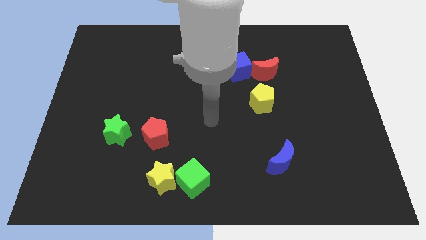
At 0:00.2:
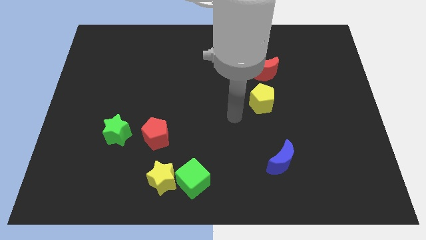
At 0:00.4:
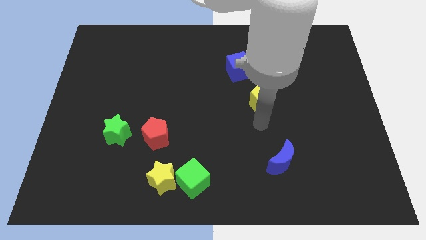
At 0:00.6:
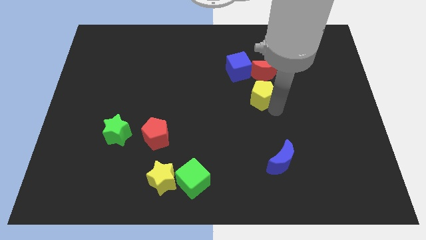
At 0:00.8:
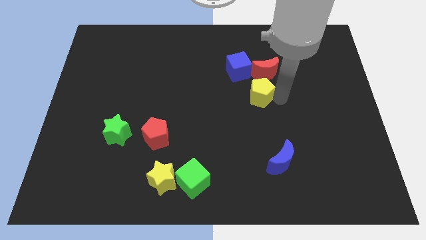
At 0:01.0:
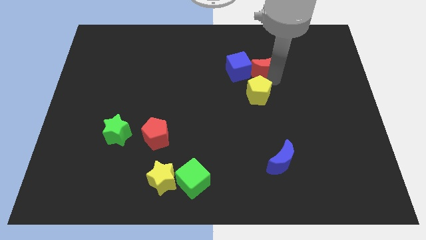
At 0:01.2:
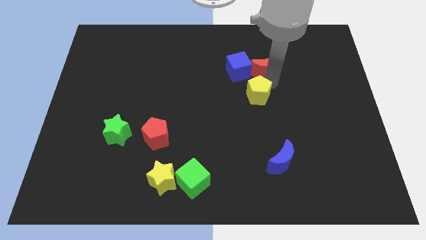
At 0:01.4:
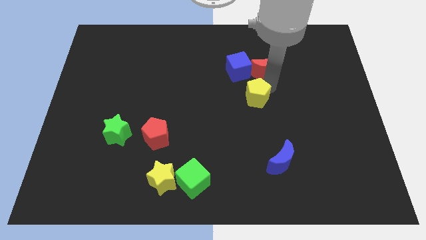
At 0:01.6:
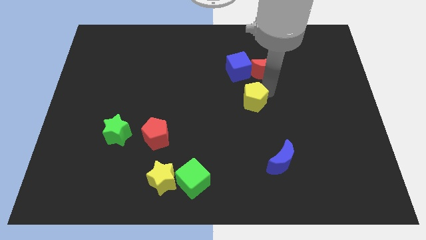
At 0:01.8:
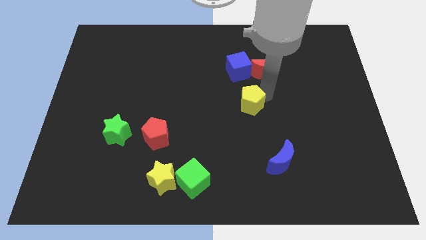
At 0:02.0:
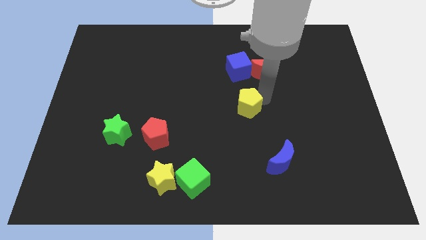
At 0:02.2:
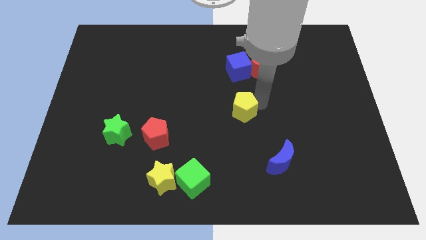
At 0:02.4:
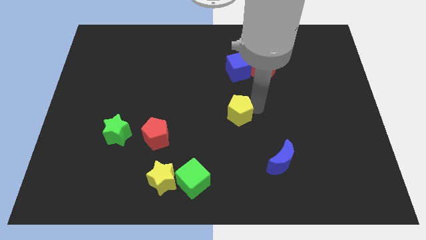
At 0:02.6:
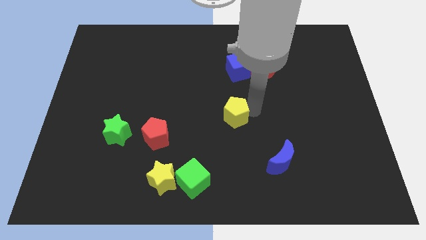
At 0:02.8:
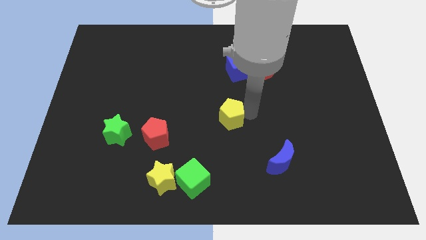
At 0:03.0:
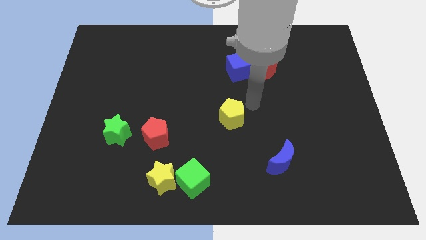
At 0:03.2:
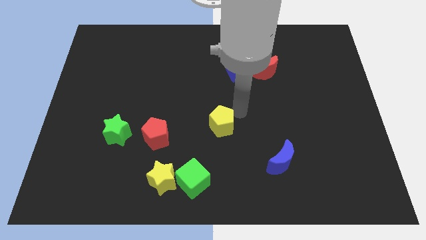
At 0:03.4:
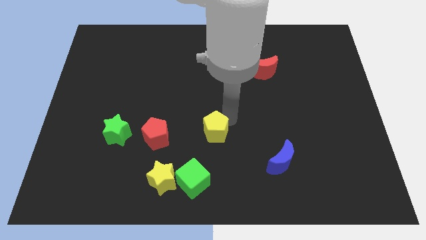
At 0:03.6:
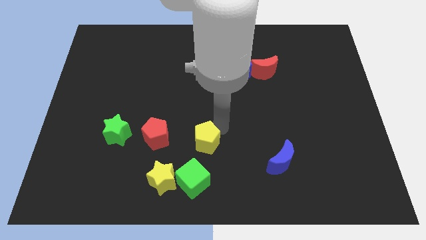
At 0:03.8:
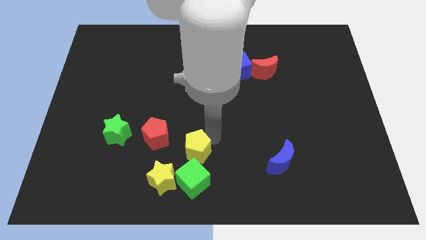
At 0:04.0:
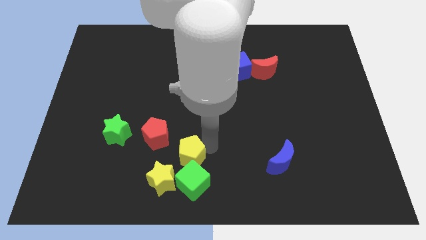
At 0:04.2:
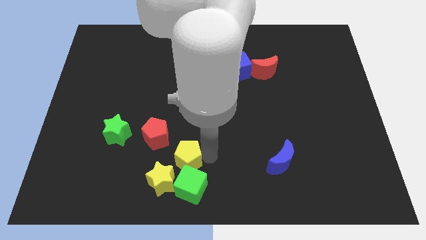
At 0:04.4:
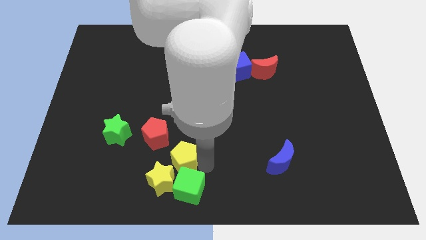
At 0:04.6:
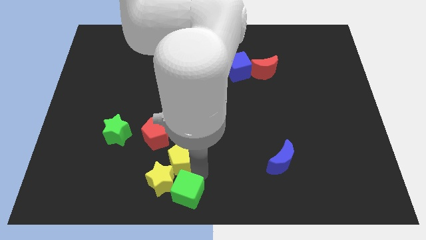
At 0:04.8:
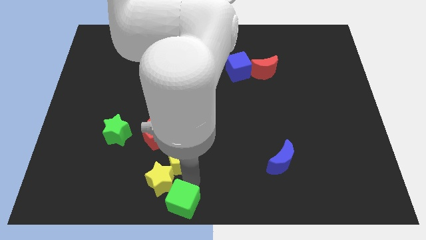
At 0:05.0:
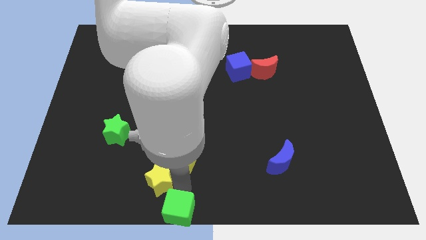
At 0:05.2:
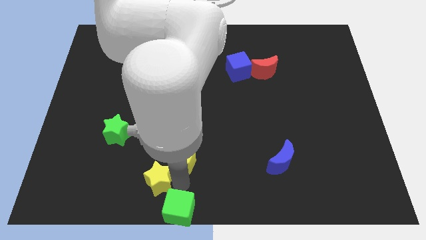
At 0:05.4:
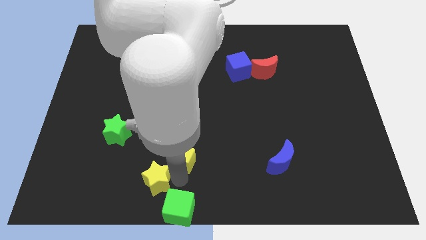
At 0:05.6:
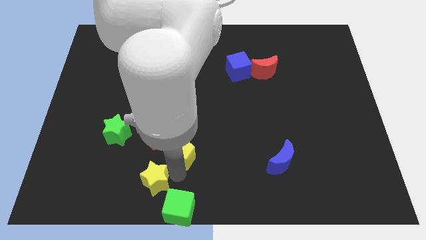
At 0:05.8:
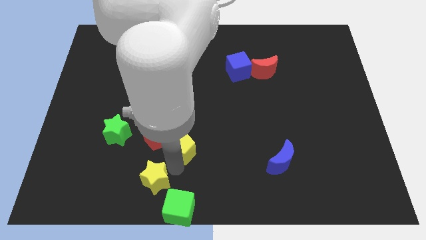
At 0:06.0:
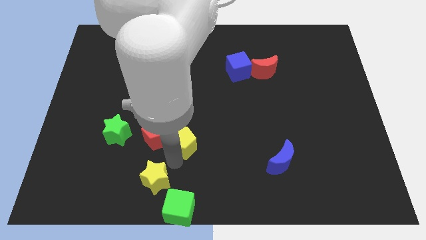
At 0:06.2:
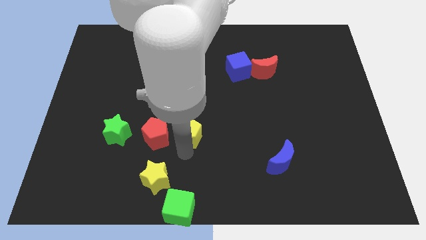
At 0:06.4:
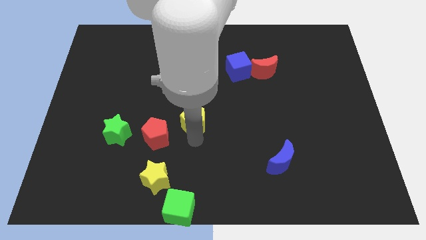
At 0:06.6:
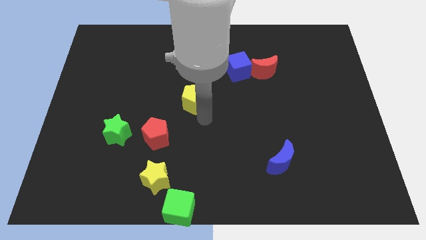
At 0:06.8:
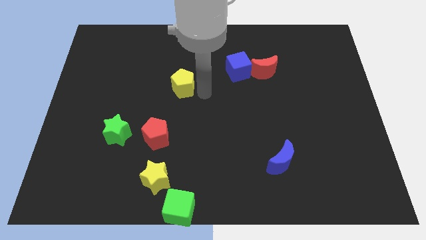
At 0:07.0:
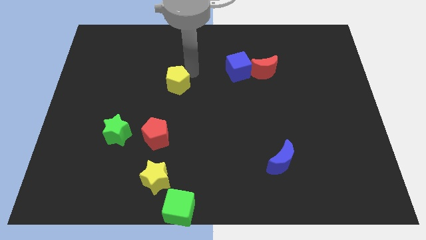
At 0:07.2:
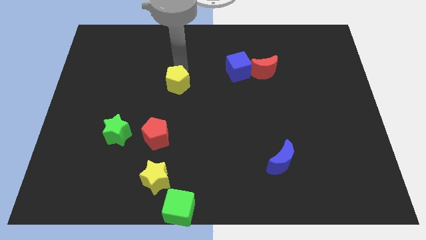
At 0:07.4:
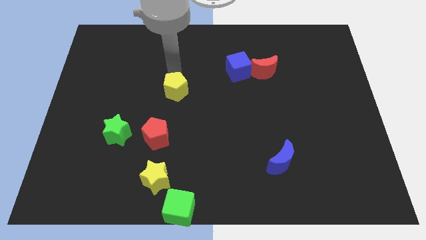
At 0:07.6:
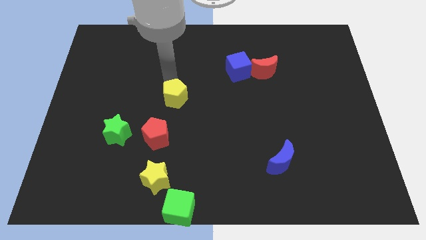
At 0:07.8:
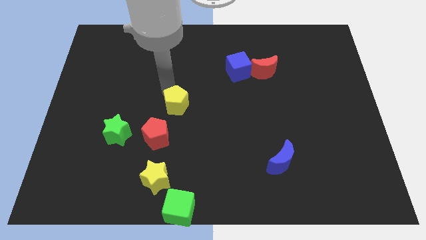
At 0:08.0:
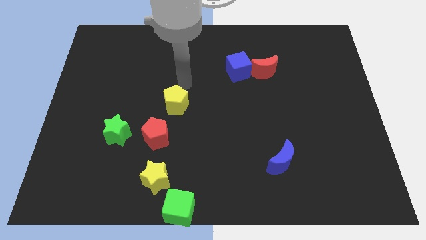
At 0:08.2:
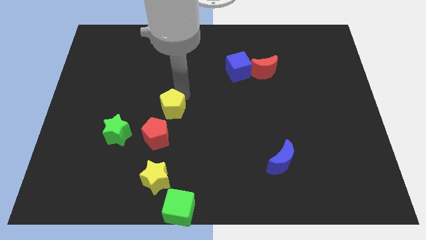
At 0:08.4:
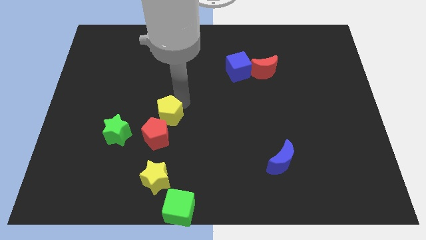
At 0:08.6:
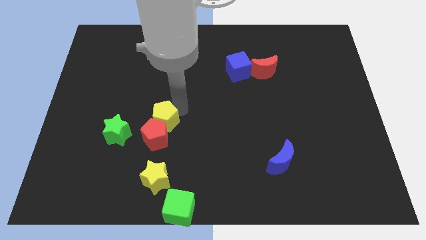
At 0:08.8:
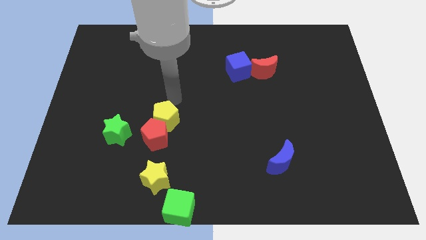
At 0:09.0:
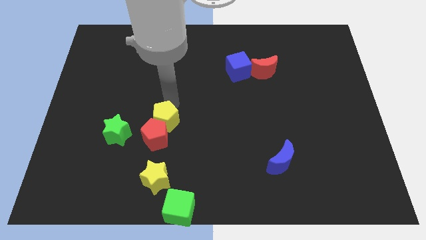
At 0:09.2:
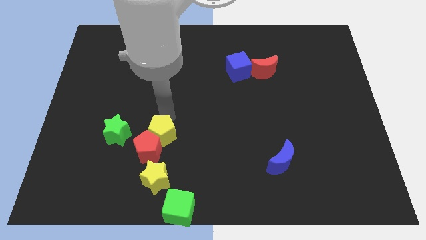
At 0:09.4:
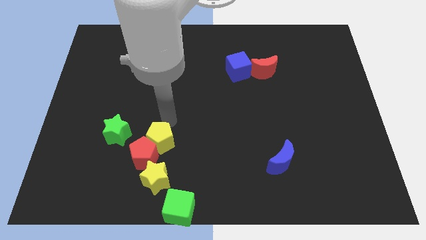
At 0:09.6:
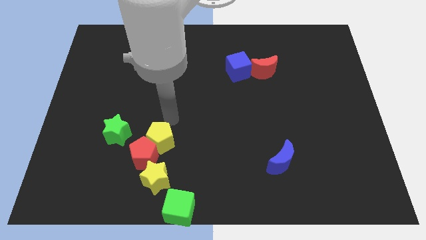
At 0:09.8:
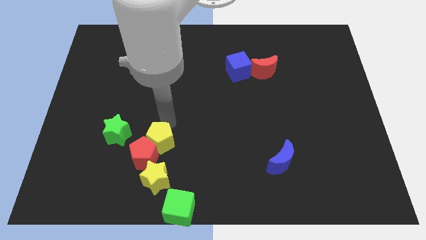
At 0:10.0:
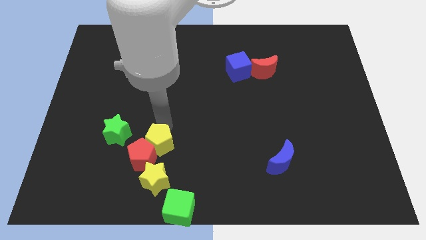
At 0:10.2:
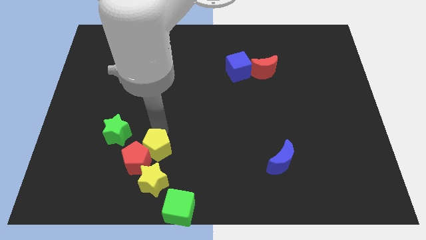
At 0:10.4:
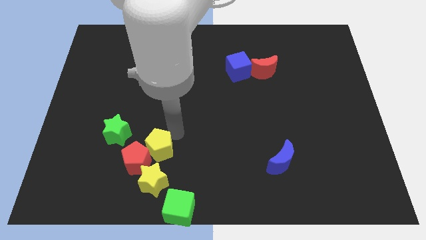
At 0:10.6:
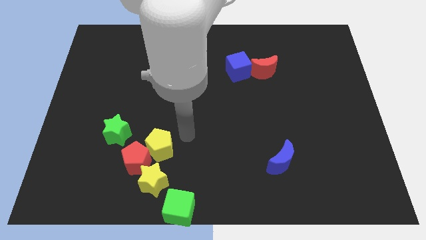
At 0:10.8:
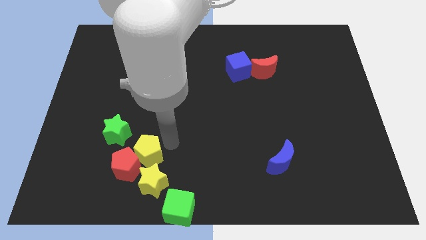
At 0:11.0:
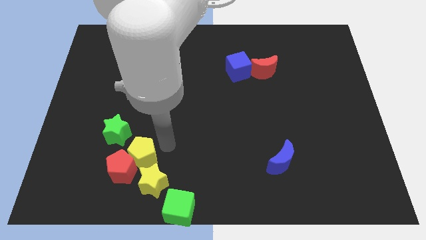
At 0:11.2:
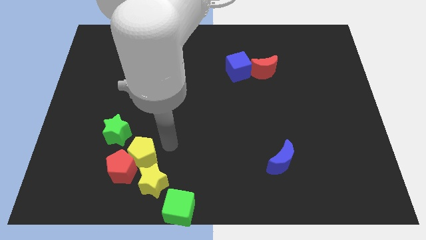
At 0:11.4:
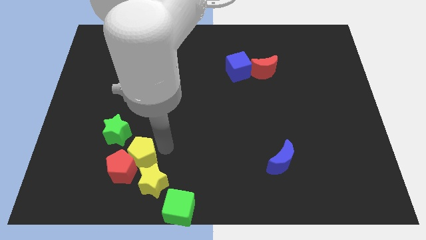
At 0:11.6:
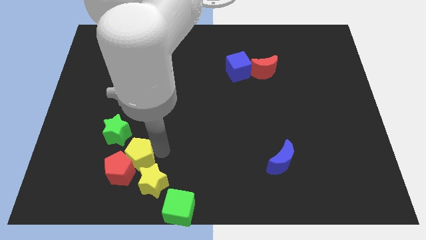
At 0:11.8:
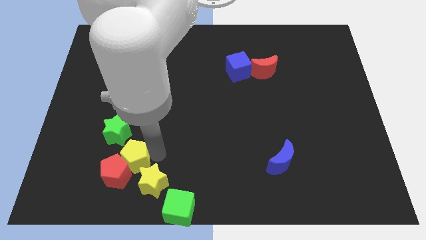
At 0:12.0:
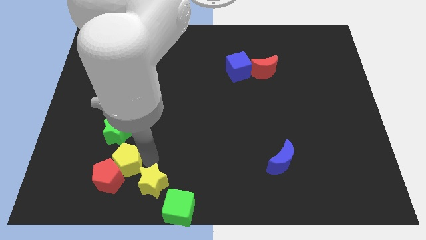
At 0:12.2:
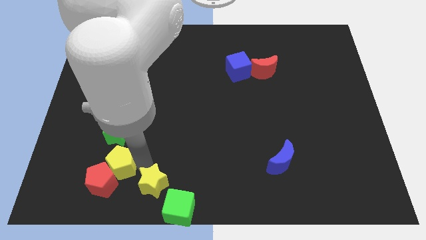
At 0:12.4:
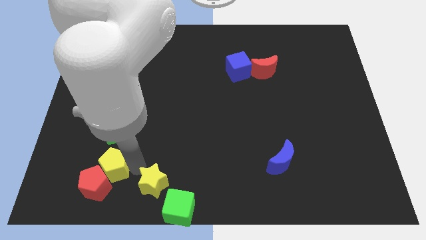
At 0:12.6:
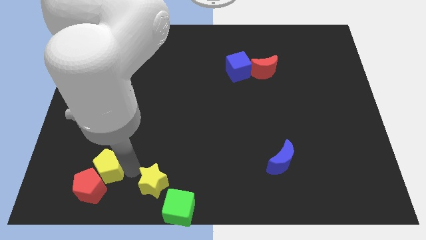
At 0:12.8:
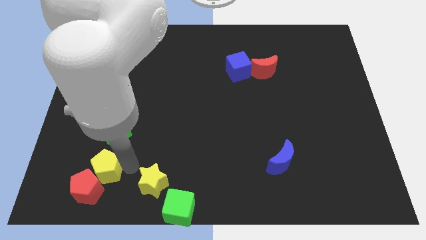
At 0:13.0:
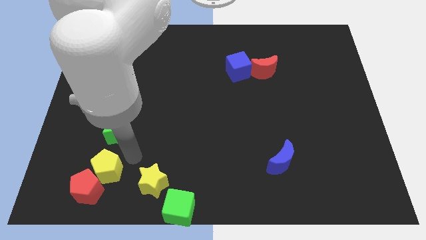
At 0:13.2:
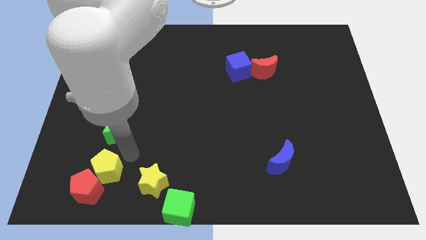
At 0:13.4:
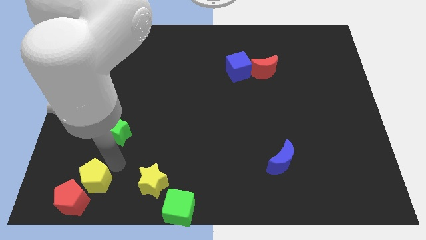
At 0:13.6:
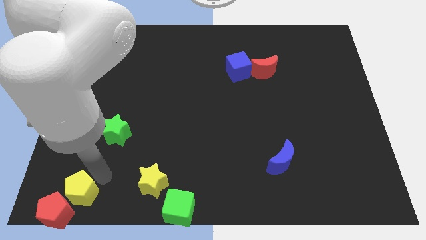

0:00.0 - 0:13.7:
slide the yellow pentagon to the lower left corner

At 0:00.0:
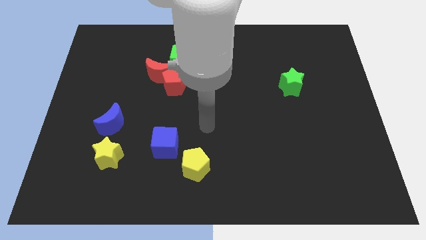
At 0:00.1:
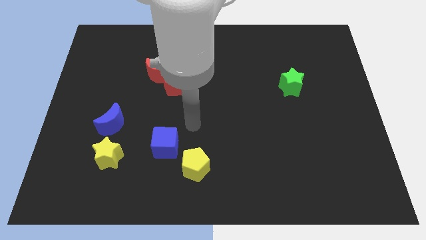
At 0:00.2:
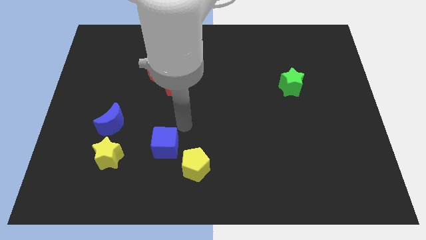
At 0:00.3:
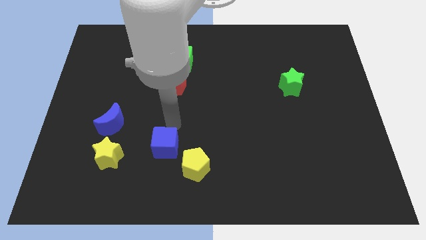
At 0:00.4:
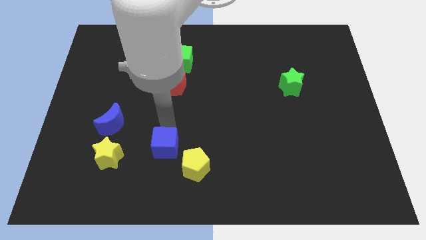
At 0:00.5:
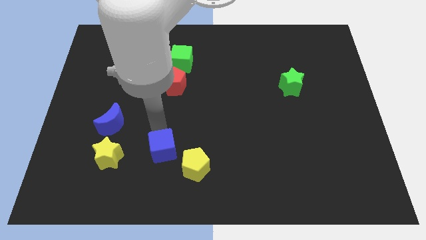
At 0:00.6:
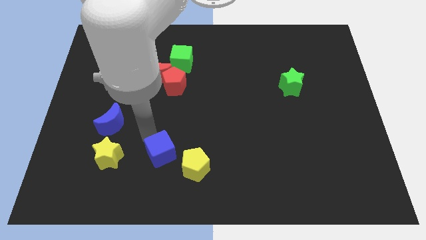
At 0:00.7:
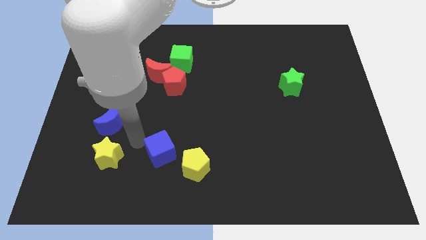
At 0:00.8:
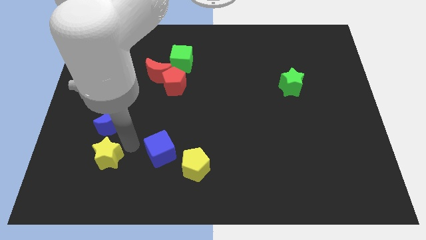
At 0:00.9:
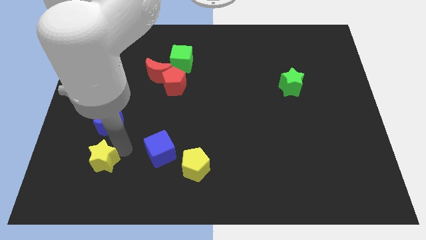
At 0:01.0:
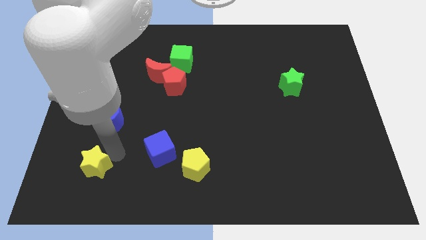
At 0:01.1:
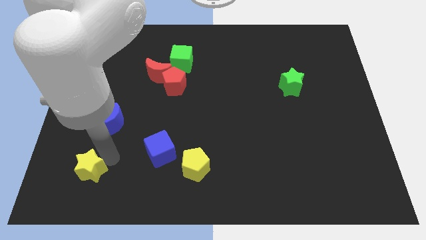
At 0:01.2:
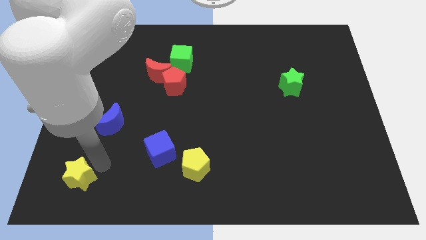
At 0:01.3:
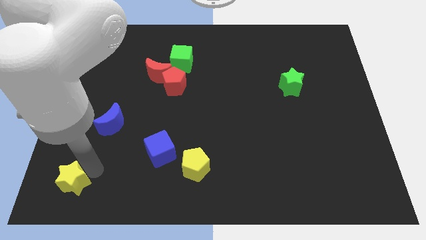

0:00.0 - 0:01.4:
put the yellow star to the lower left corner
